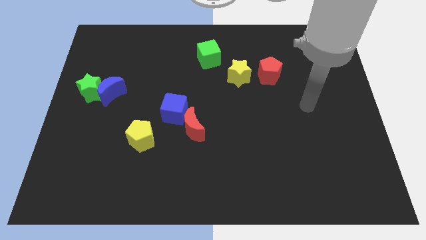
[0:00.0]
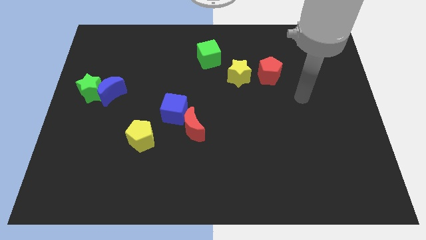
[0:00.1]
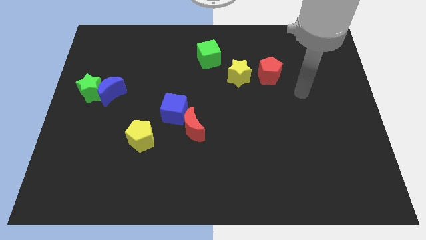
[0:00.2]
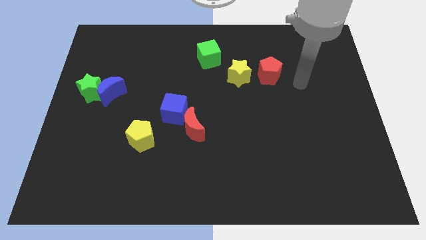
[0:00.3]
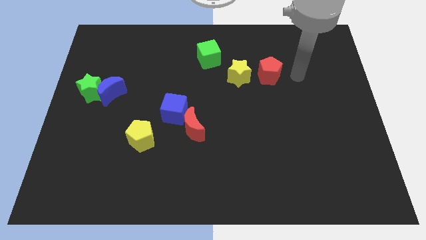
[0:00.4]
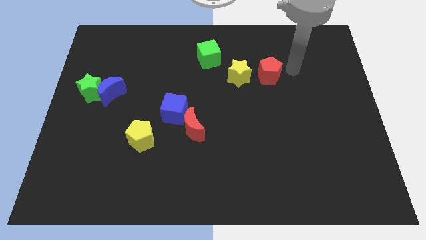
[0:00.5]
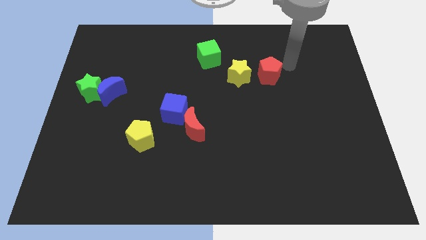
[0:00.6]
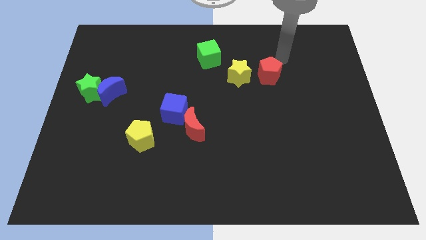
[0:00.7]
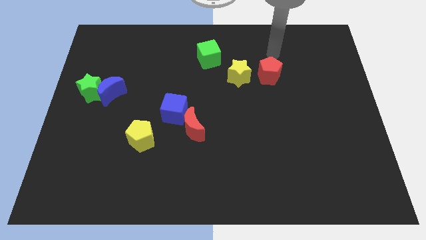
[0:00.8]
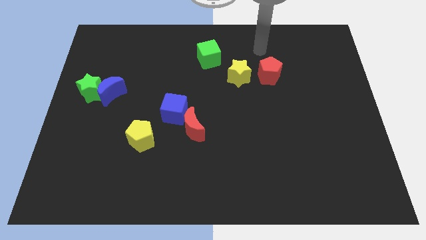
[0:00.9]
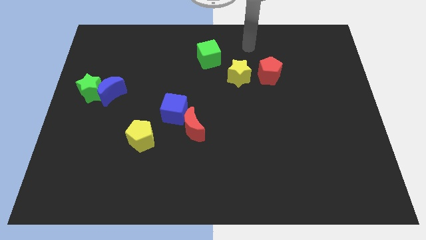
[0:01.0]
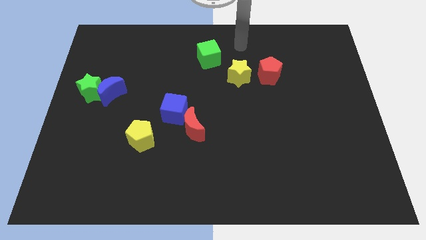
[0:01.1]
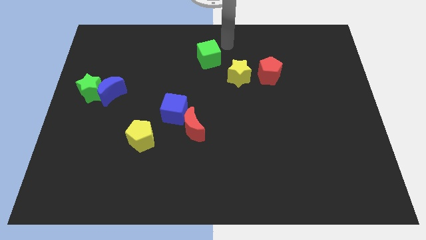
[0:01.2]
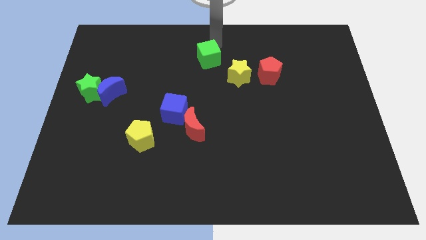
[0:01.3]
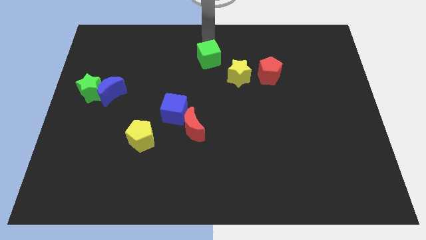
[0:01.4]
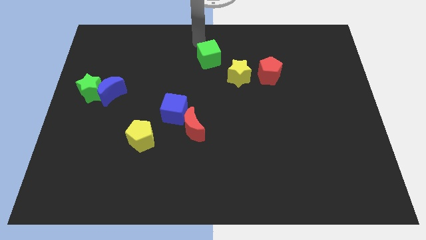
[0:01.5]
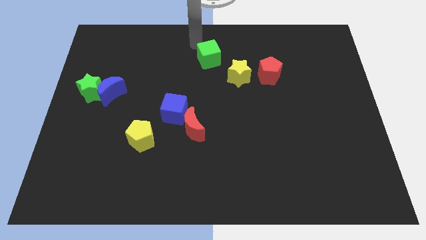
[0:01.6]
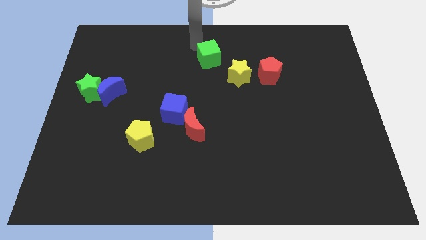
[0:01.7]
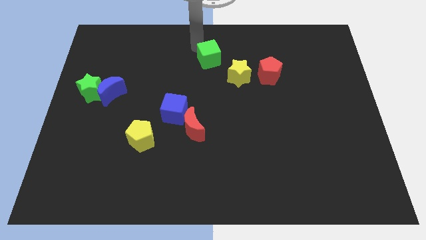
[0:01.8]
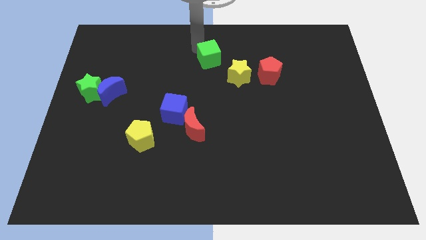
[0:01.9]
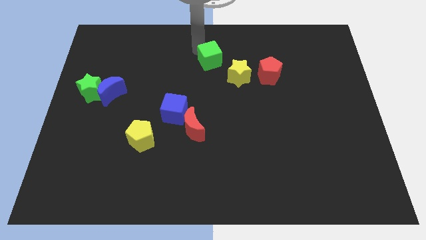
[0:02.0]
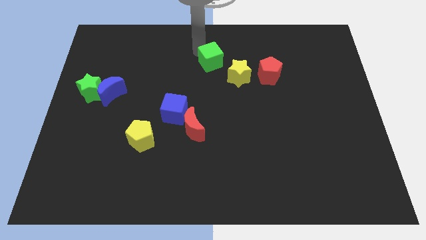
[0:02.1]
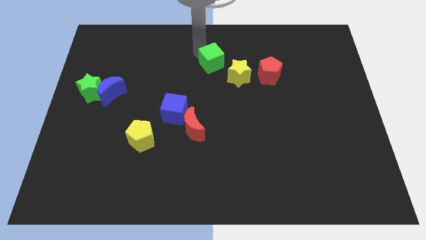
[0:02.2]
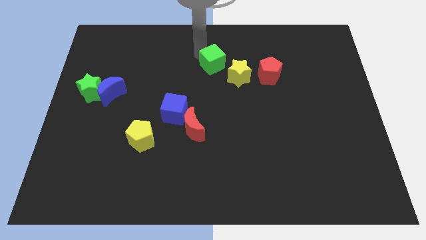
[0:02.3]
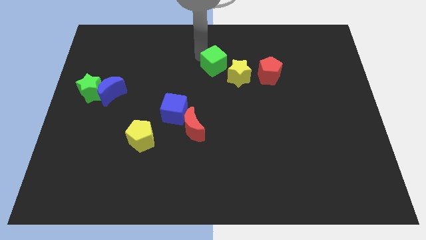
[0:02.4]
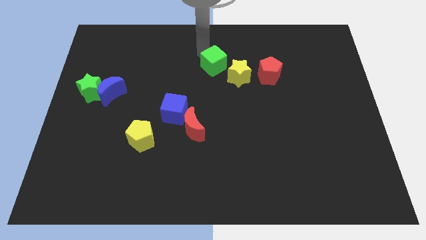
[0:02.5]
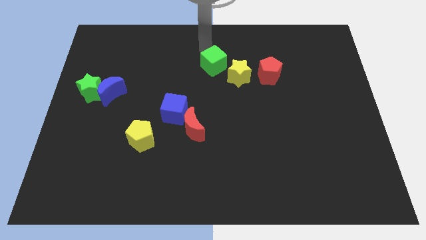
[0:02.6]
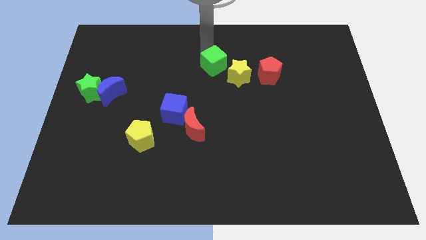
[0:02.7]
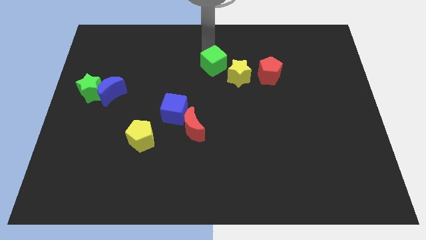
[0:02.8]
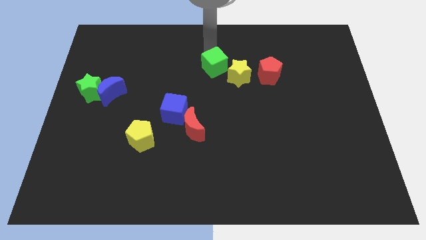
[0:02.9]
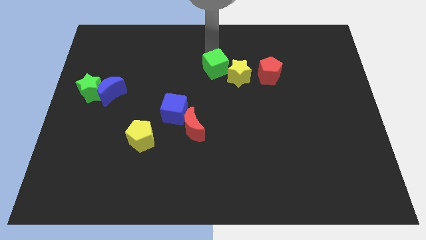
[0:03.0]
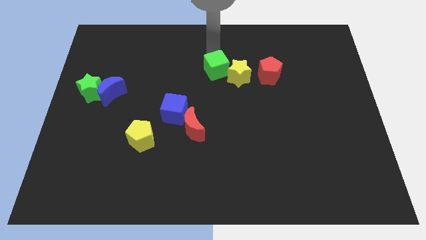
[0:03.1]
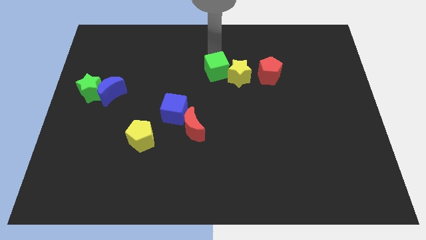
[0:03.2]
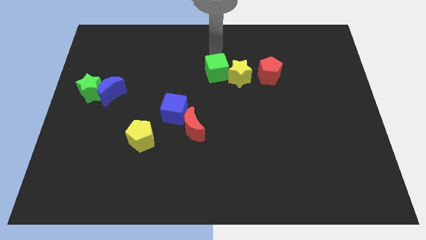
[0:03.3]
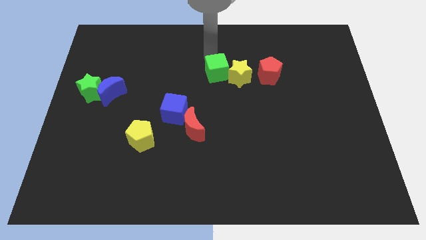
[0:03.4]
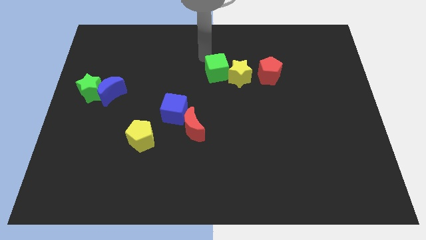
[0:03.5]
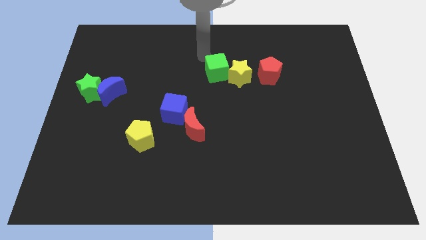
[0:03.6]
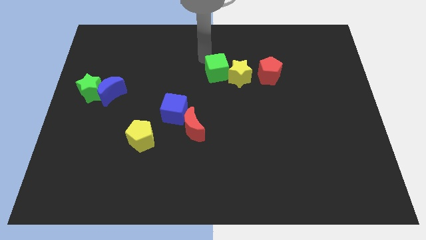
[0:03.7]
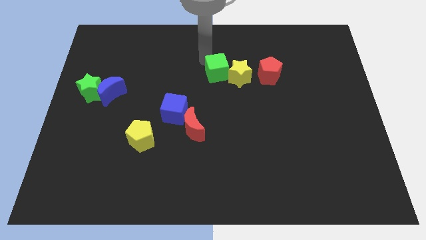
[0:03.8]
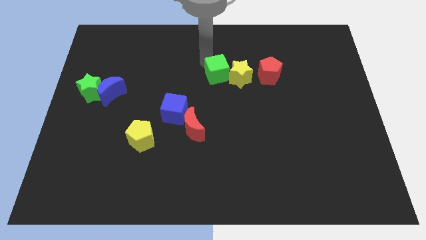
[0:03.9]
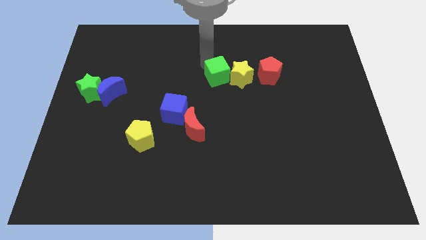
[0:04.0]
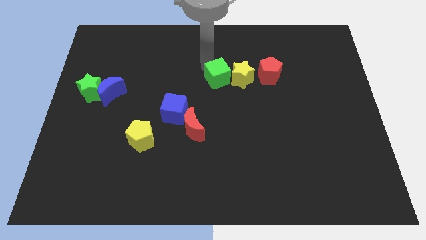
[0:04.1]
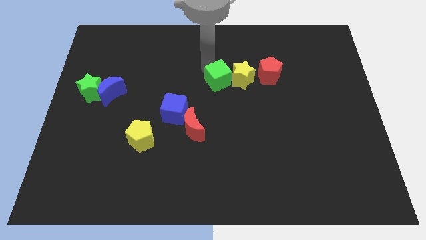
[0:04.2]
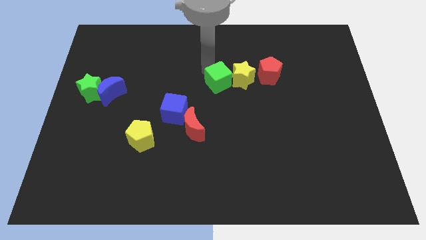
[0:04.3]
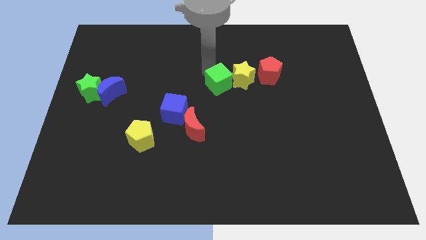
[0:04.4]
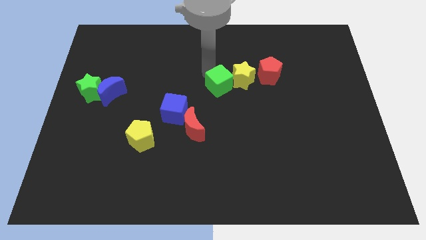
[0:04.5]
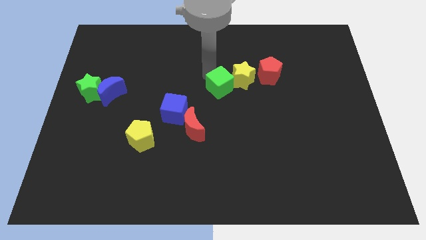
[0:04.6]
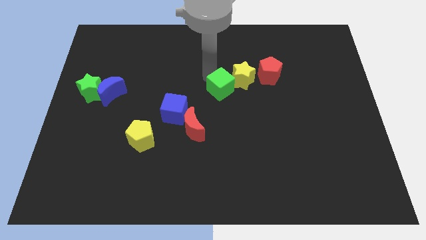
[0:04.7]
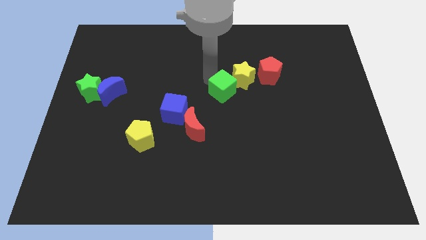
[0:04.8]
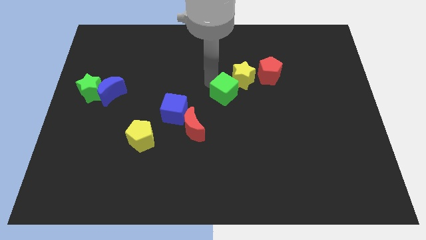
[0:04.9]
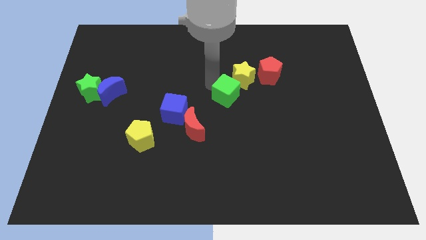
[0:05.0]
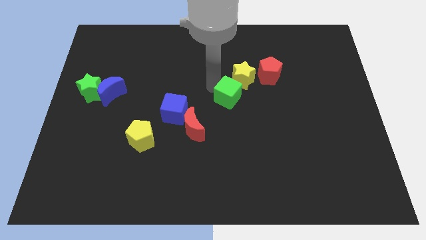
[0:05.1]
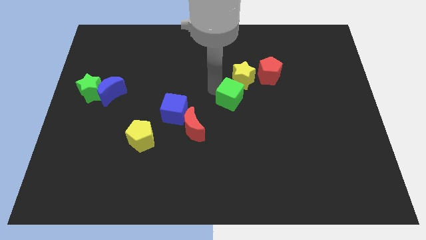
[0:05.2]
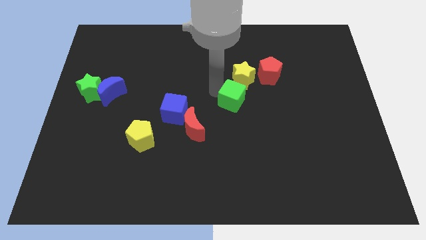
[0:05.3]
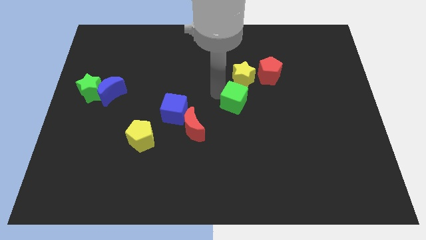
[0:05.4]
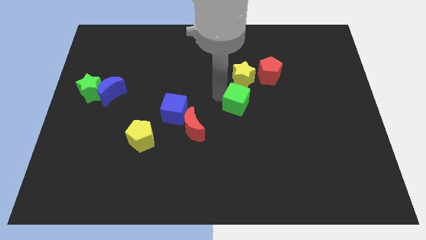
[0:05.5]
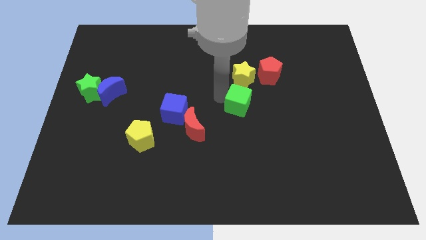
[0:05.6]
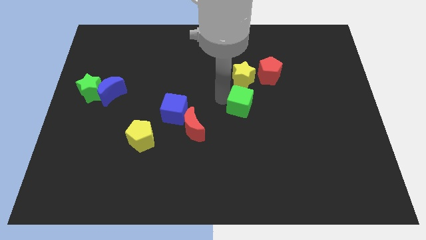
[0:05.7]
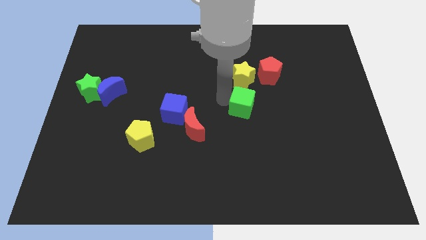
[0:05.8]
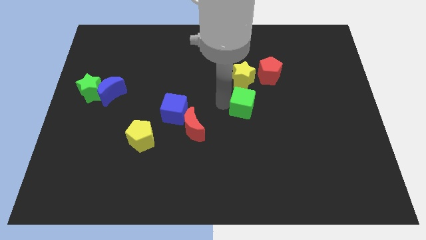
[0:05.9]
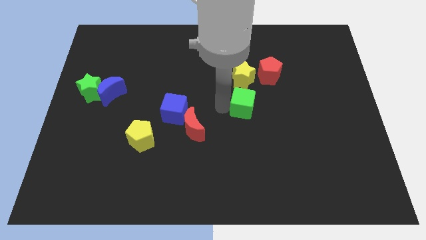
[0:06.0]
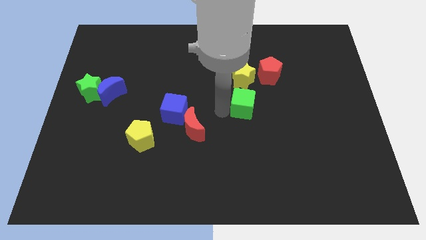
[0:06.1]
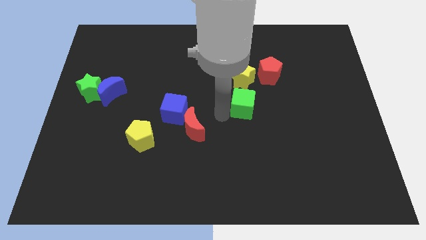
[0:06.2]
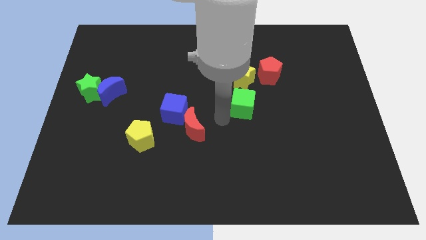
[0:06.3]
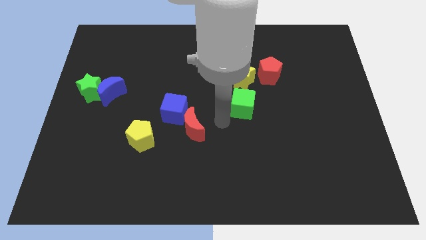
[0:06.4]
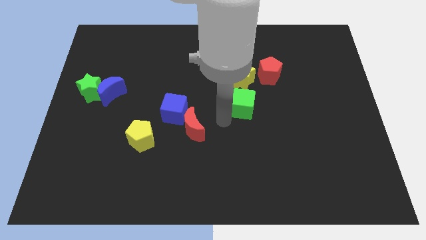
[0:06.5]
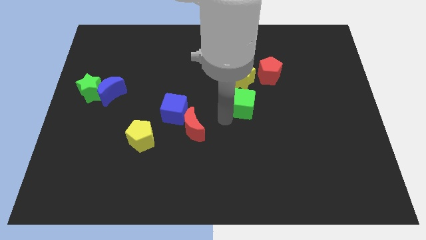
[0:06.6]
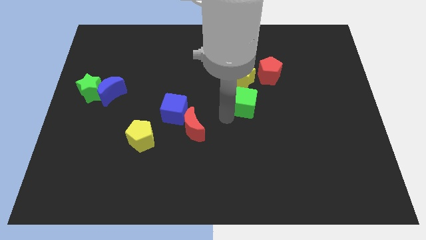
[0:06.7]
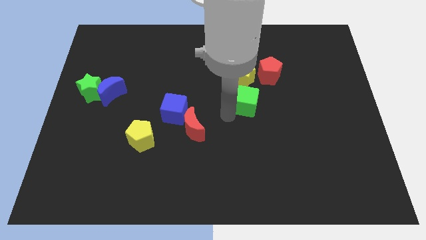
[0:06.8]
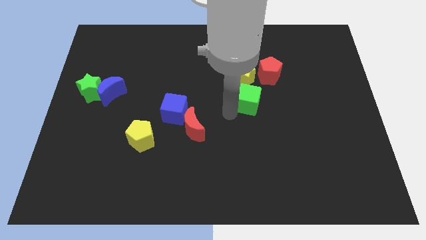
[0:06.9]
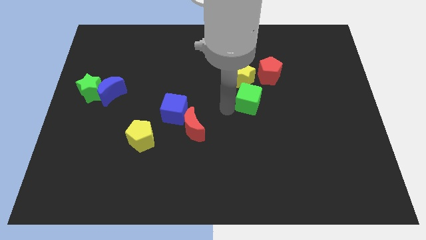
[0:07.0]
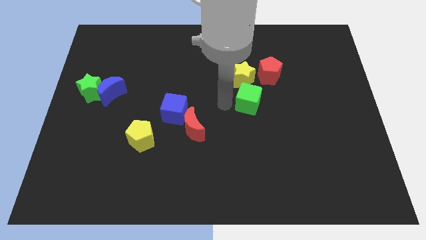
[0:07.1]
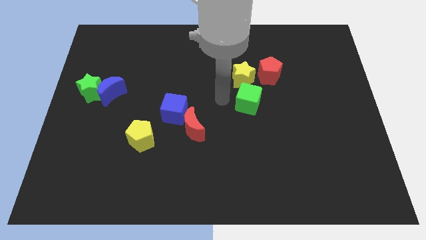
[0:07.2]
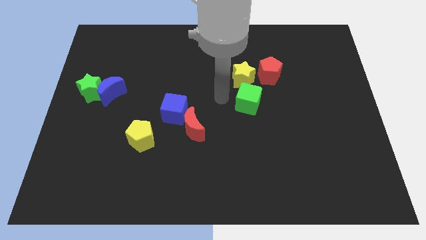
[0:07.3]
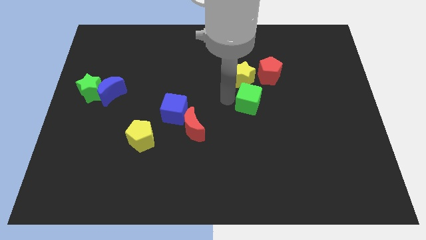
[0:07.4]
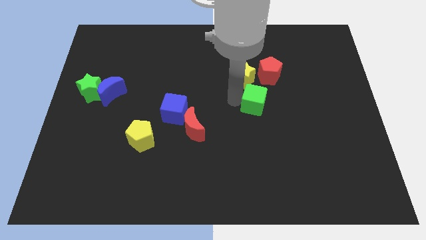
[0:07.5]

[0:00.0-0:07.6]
move the green cube below the red pentagon
